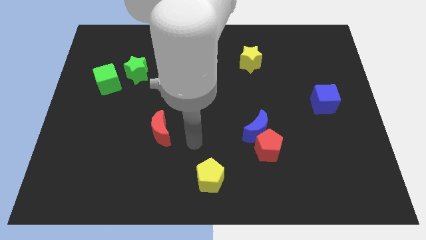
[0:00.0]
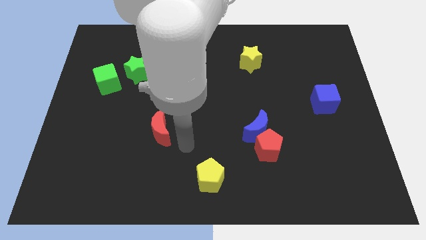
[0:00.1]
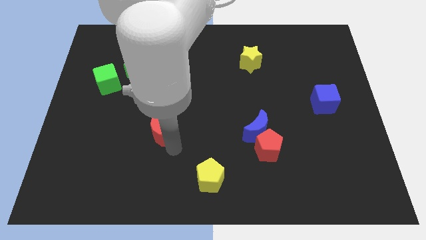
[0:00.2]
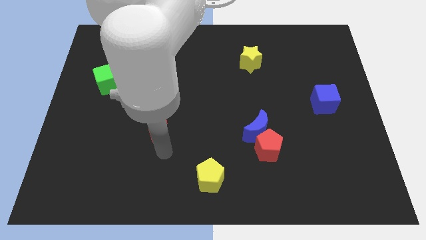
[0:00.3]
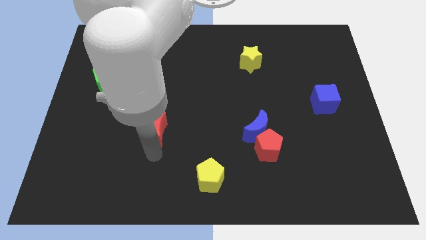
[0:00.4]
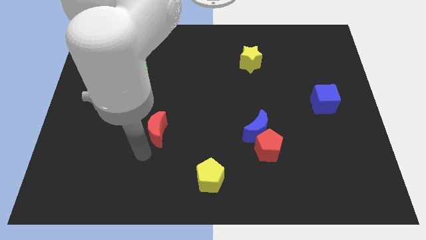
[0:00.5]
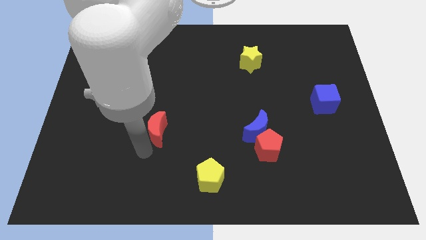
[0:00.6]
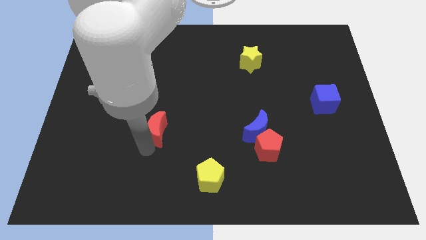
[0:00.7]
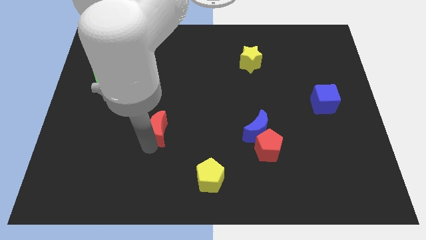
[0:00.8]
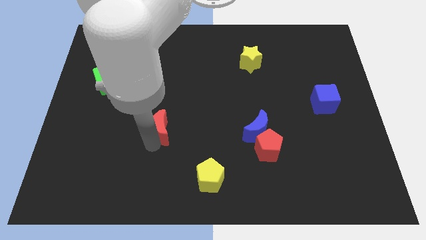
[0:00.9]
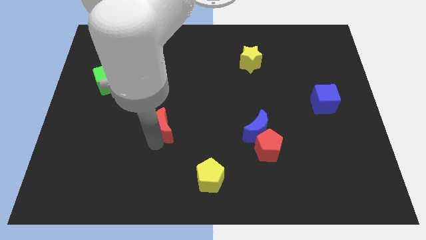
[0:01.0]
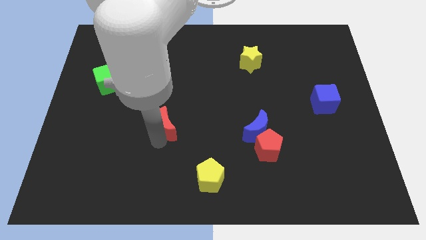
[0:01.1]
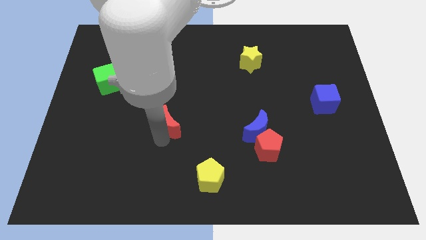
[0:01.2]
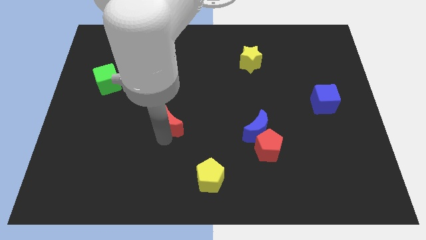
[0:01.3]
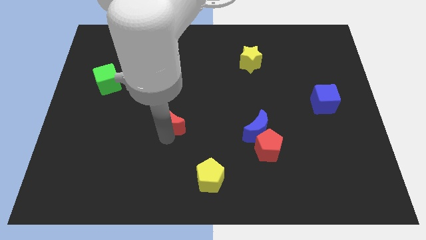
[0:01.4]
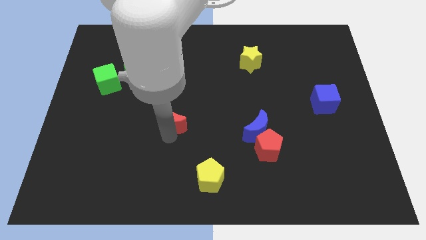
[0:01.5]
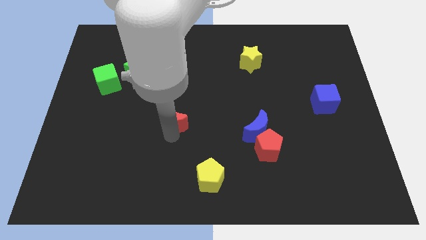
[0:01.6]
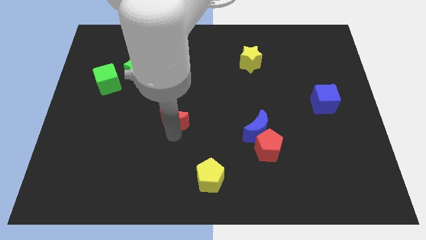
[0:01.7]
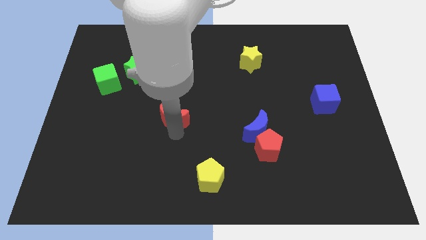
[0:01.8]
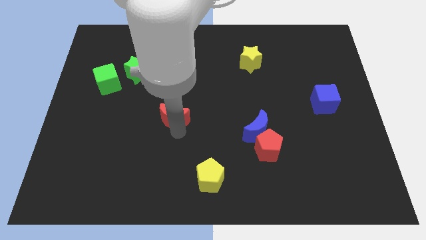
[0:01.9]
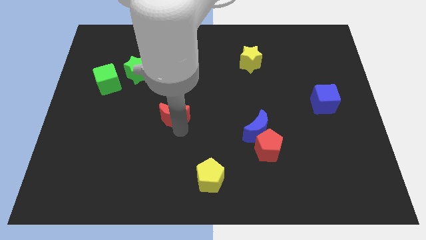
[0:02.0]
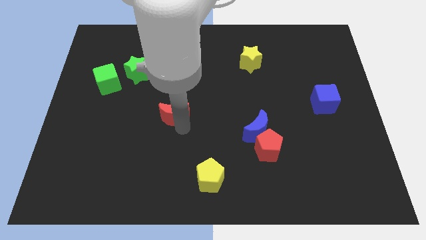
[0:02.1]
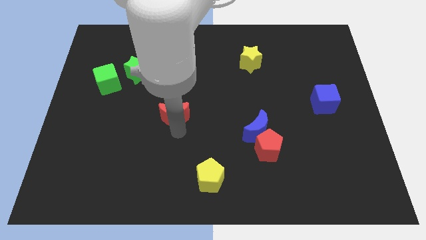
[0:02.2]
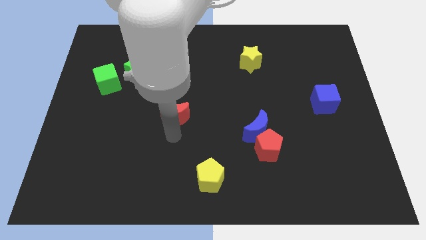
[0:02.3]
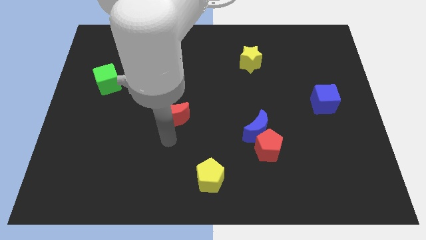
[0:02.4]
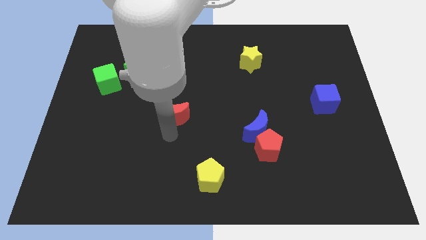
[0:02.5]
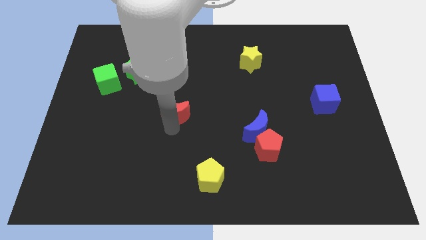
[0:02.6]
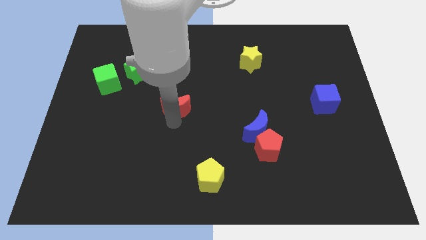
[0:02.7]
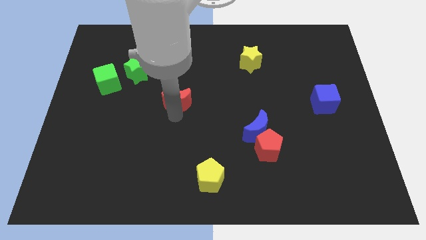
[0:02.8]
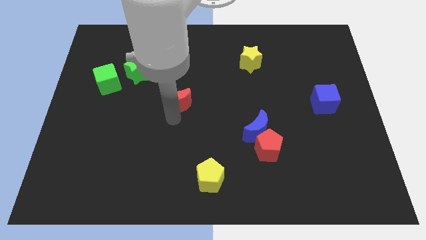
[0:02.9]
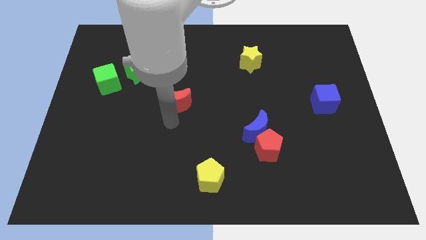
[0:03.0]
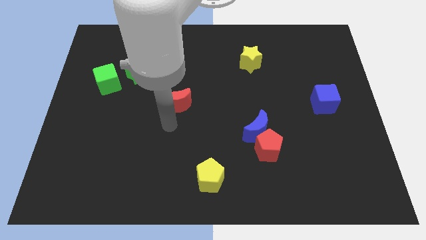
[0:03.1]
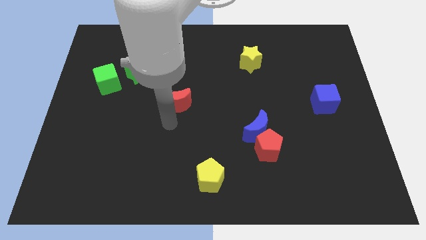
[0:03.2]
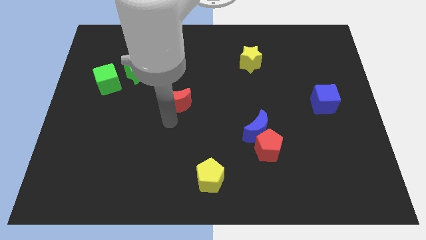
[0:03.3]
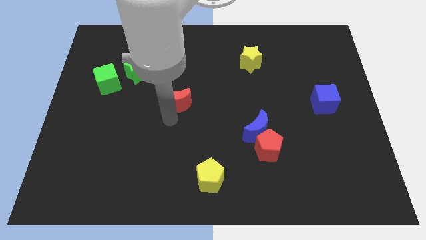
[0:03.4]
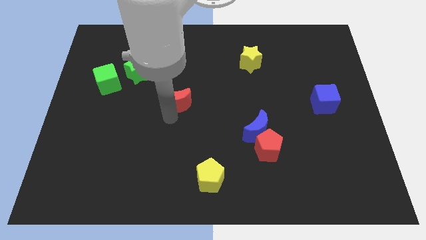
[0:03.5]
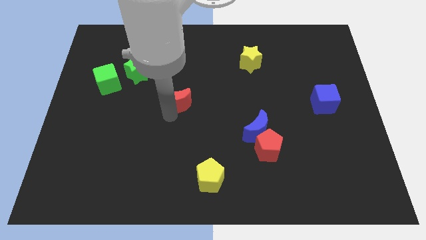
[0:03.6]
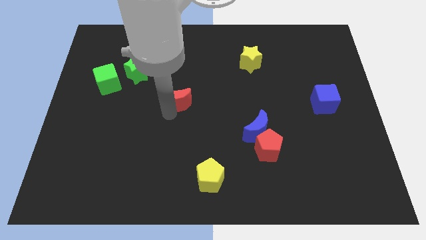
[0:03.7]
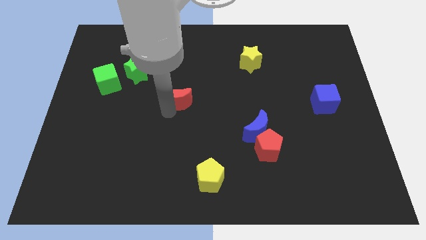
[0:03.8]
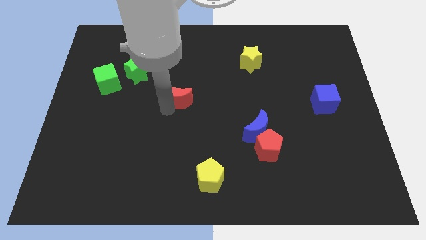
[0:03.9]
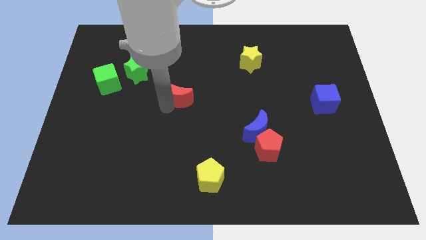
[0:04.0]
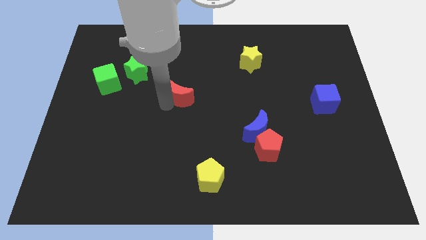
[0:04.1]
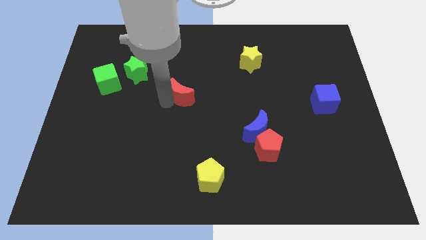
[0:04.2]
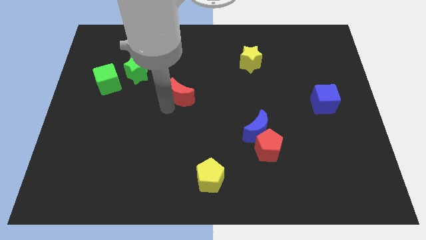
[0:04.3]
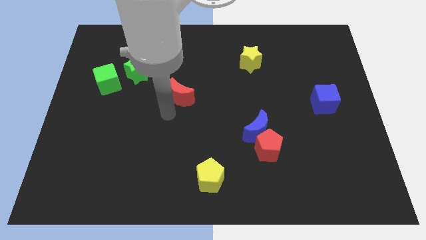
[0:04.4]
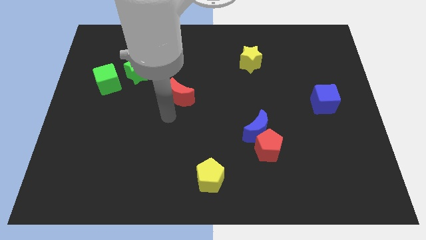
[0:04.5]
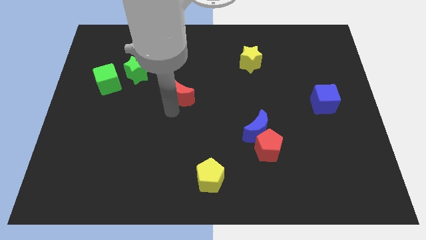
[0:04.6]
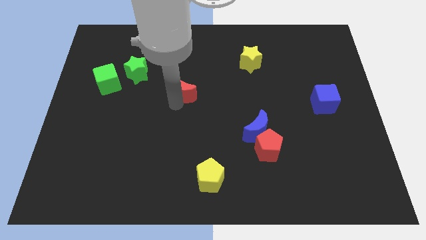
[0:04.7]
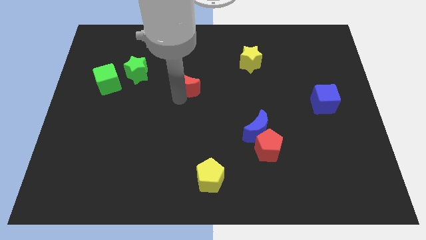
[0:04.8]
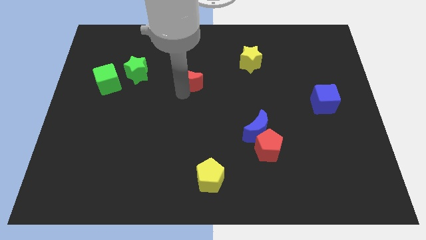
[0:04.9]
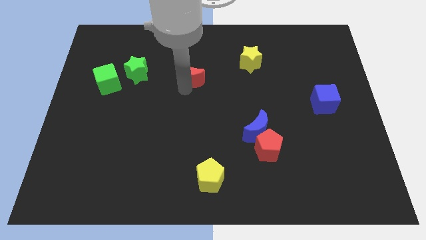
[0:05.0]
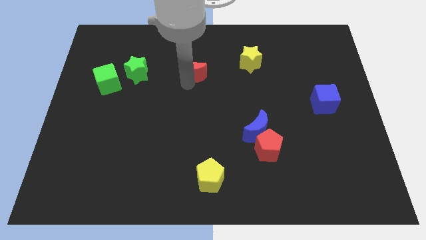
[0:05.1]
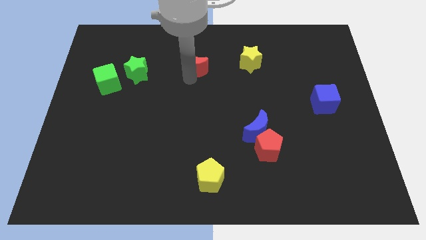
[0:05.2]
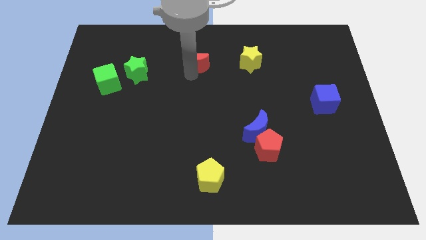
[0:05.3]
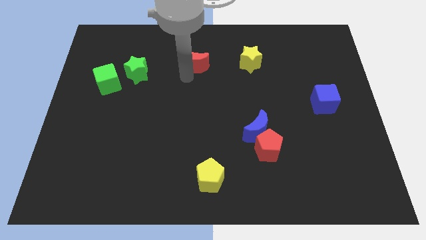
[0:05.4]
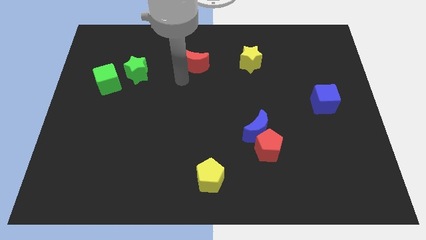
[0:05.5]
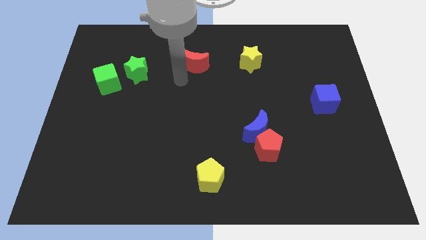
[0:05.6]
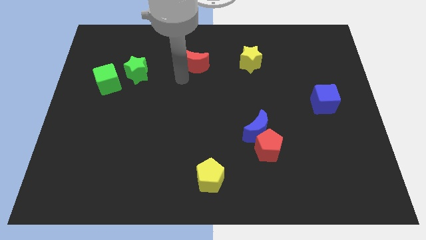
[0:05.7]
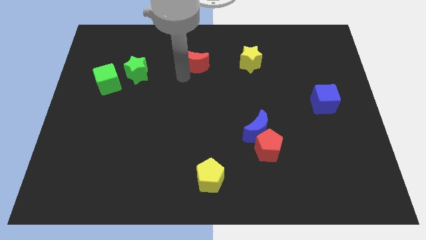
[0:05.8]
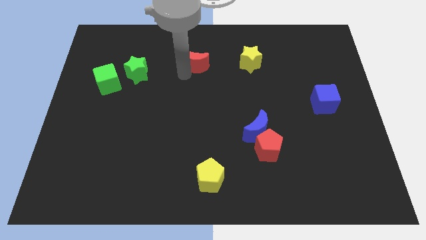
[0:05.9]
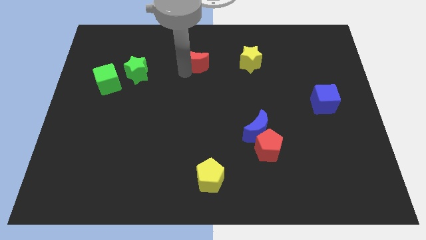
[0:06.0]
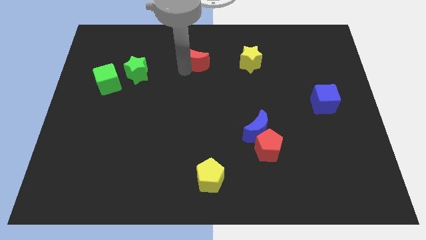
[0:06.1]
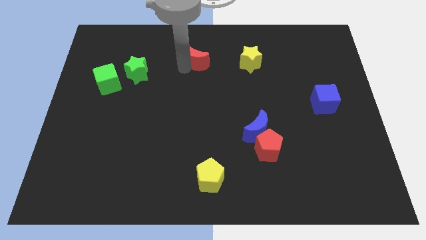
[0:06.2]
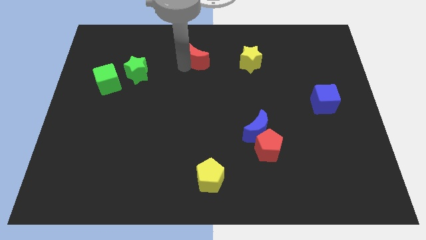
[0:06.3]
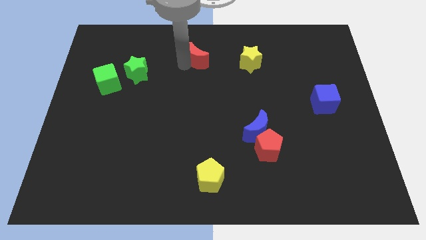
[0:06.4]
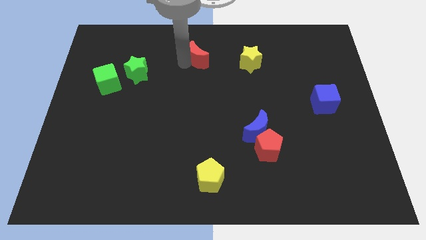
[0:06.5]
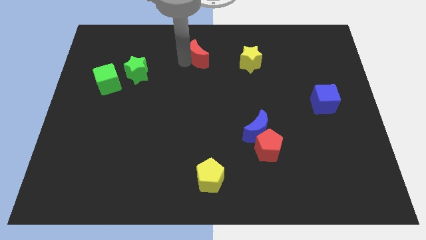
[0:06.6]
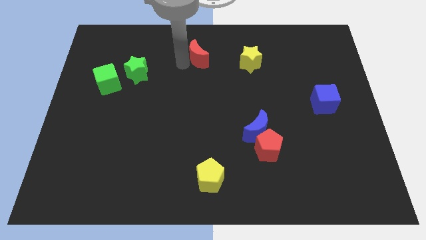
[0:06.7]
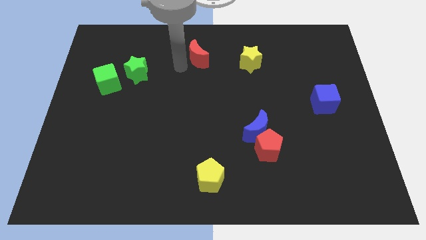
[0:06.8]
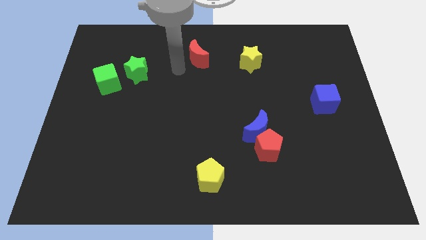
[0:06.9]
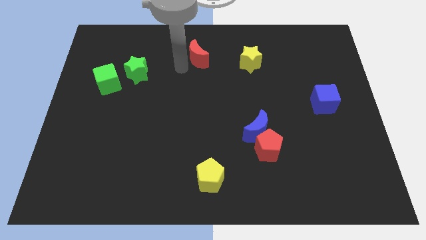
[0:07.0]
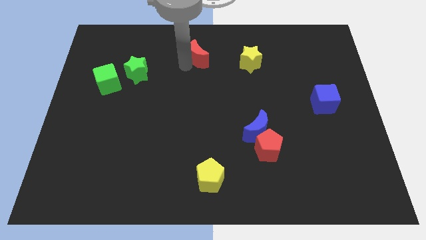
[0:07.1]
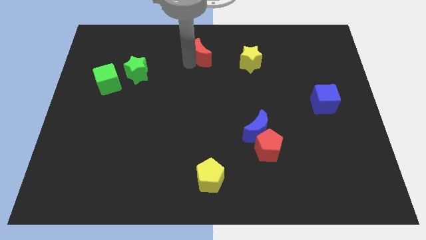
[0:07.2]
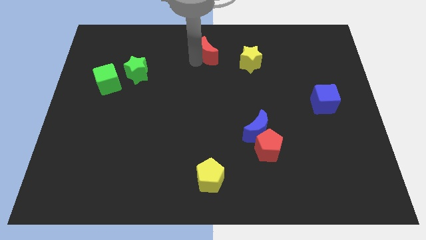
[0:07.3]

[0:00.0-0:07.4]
push the red moon to the top side
